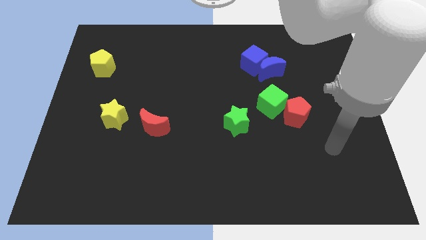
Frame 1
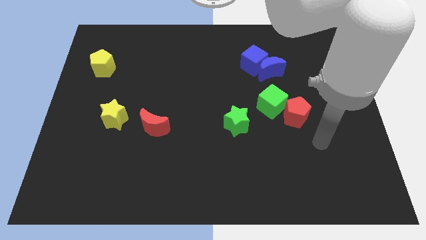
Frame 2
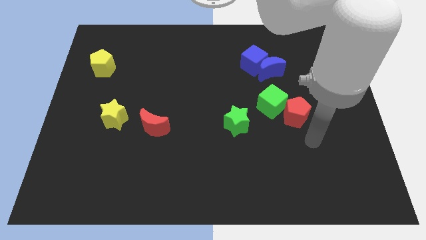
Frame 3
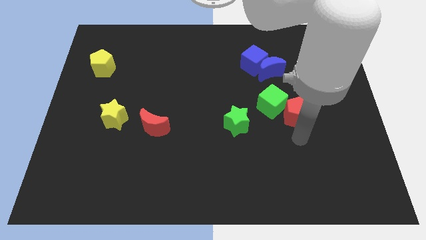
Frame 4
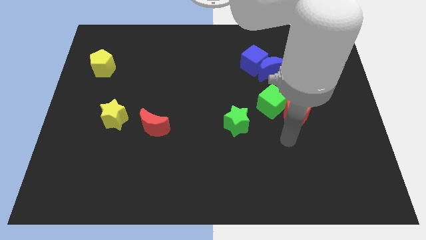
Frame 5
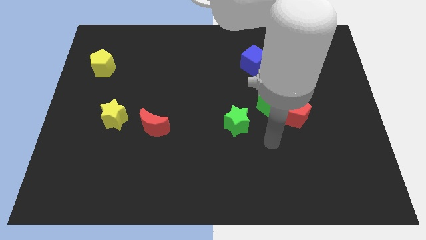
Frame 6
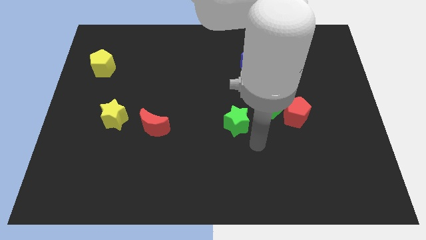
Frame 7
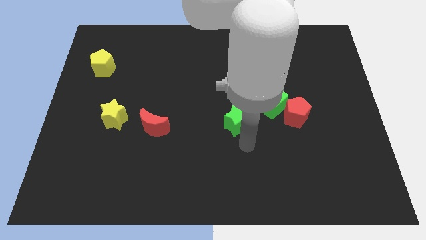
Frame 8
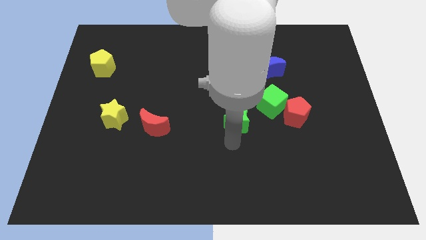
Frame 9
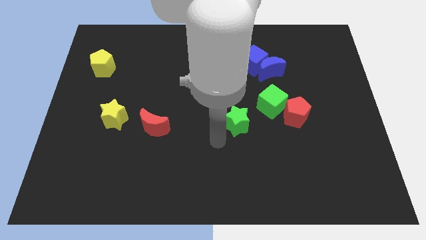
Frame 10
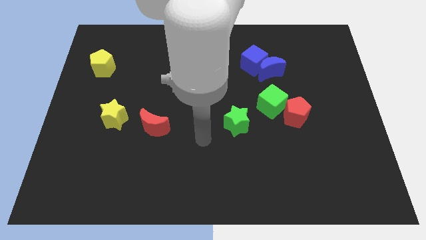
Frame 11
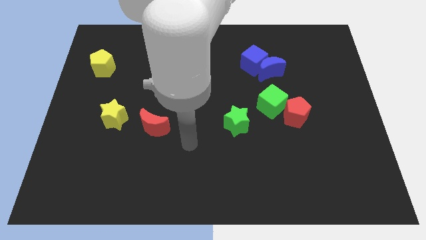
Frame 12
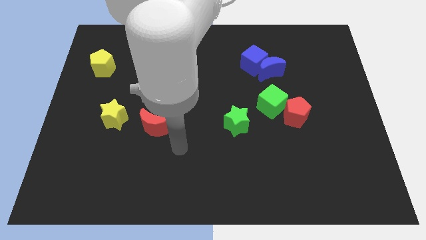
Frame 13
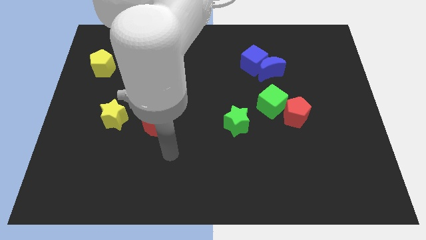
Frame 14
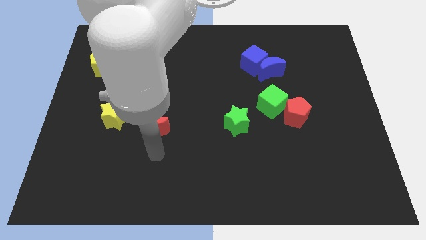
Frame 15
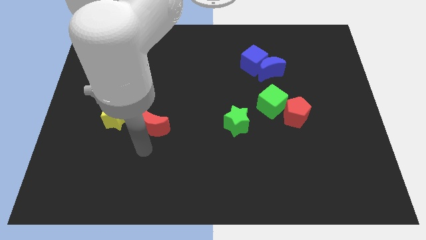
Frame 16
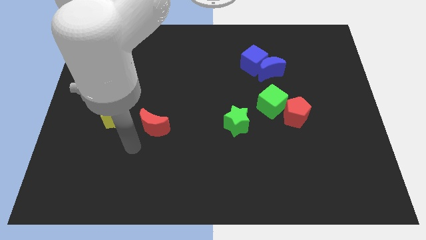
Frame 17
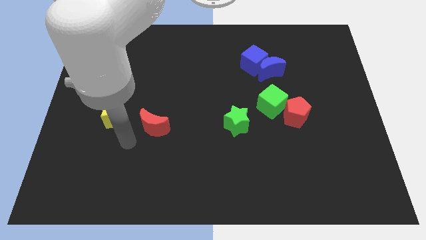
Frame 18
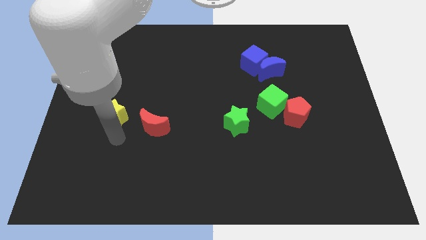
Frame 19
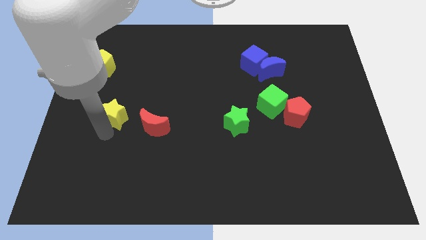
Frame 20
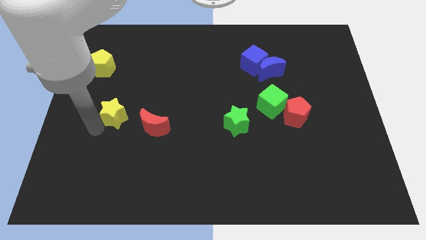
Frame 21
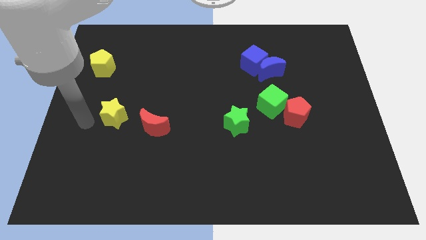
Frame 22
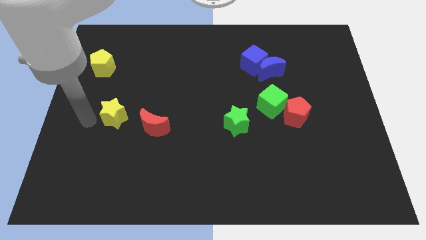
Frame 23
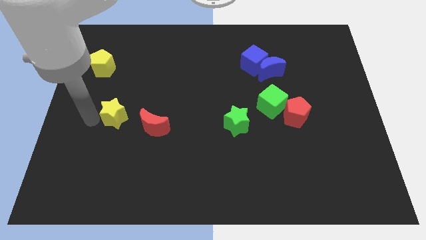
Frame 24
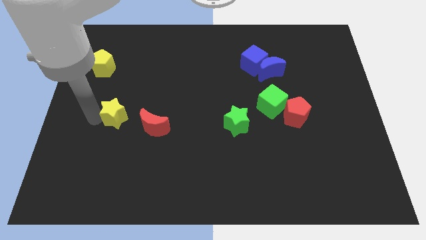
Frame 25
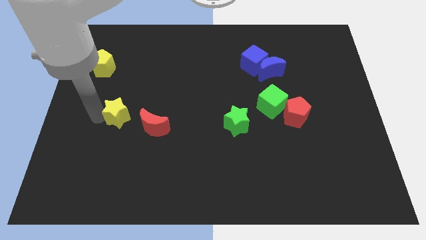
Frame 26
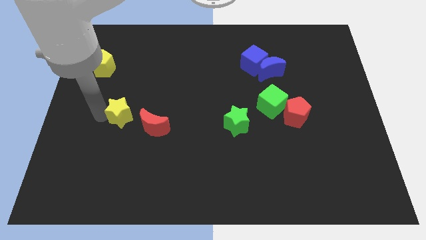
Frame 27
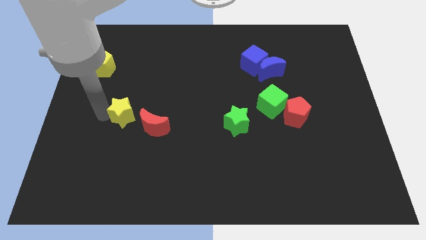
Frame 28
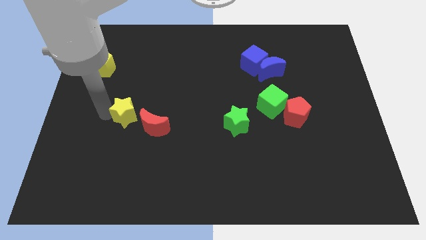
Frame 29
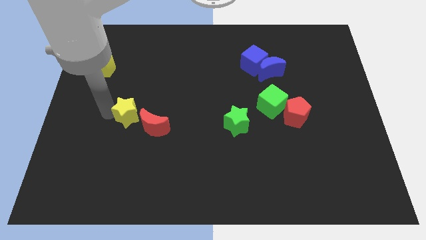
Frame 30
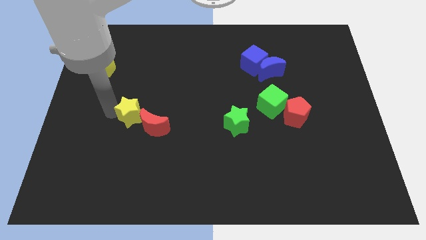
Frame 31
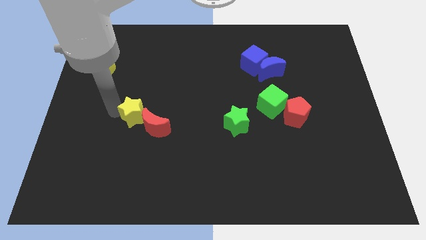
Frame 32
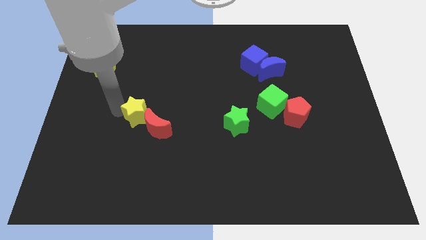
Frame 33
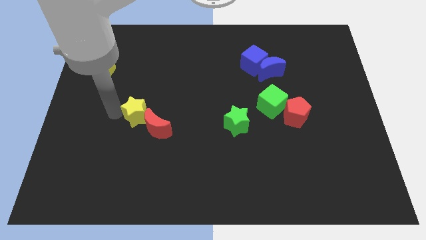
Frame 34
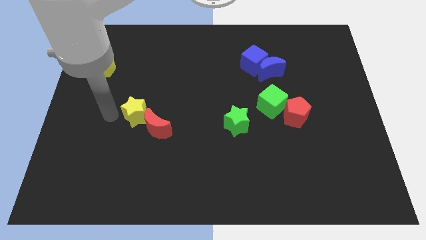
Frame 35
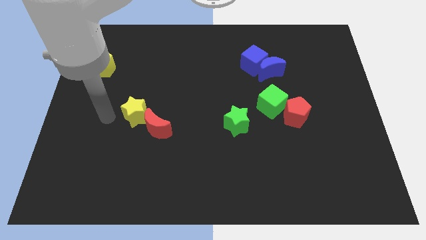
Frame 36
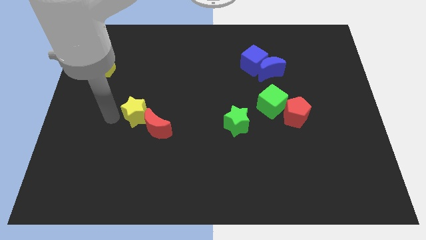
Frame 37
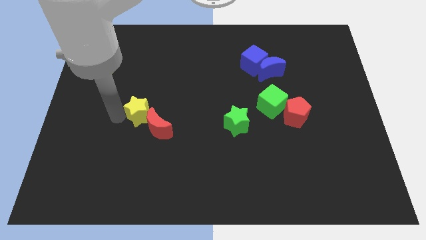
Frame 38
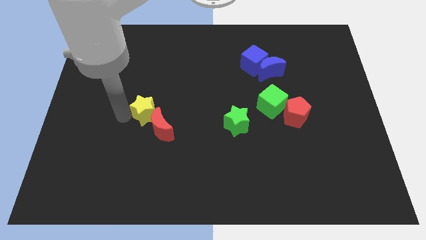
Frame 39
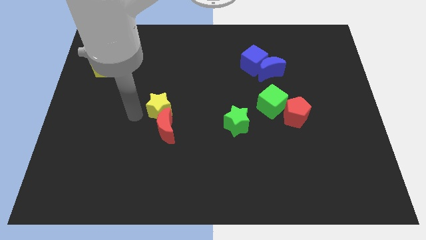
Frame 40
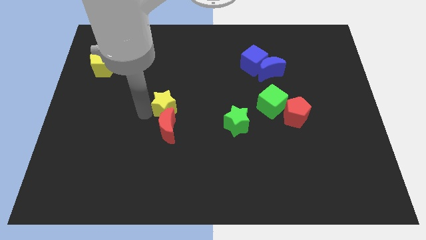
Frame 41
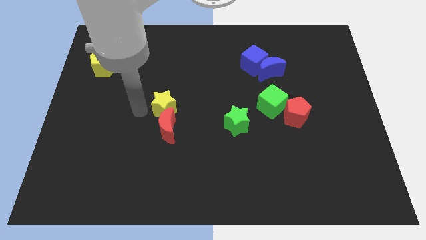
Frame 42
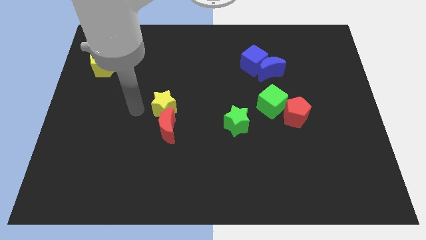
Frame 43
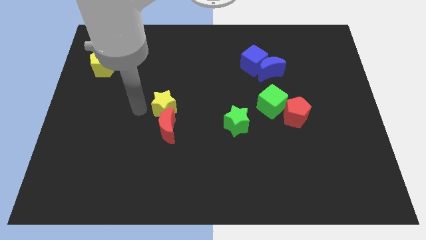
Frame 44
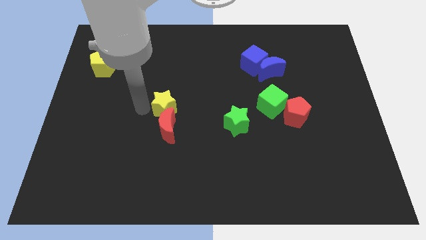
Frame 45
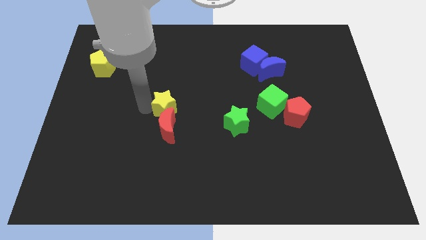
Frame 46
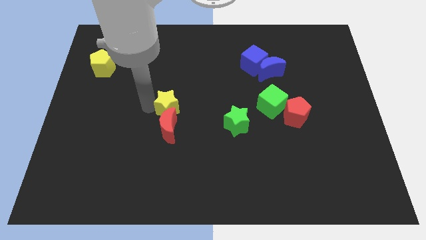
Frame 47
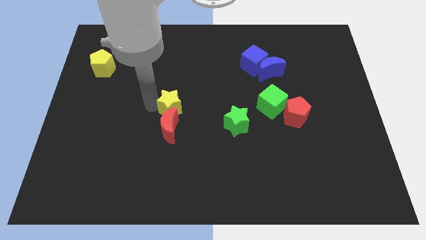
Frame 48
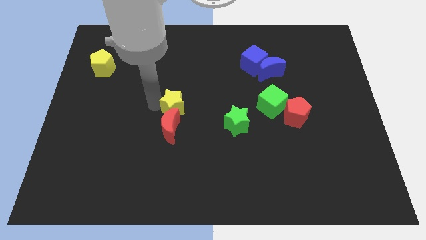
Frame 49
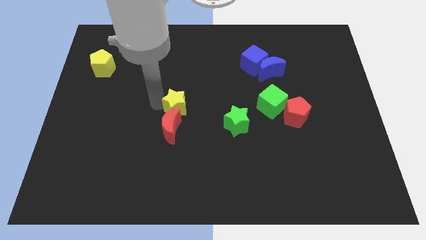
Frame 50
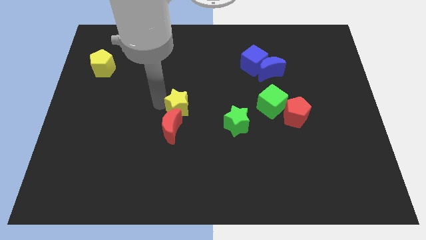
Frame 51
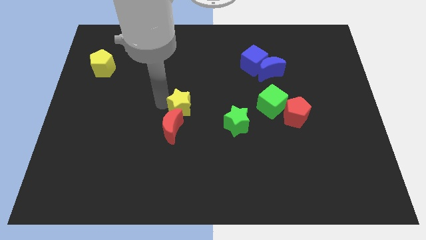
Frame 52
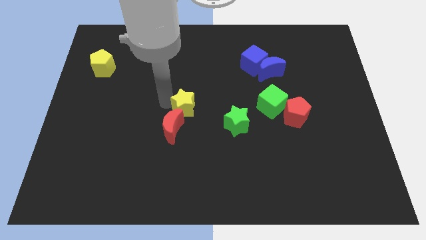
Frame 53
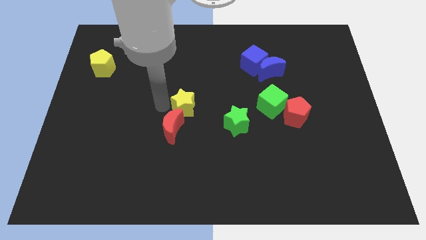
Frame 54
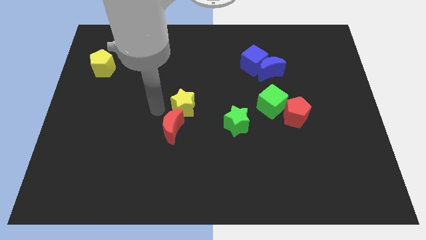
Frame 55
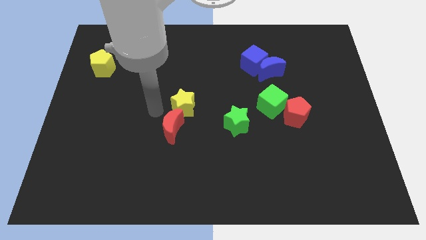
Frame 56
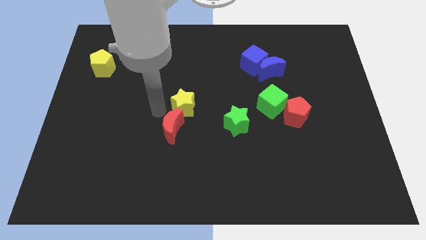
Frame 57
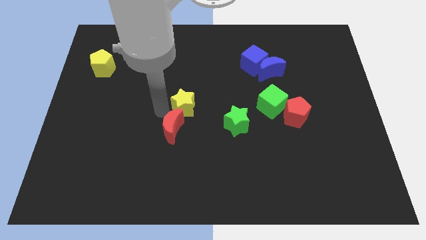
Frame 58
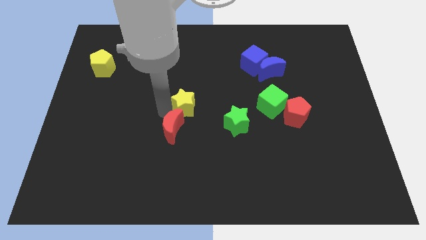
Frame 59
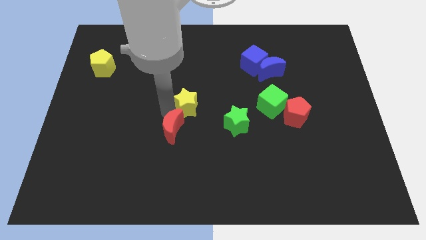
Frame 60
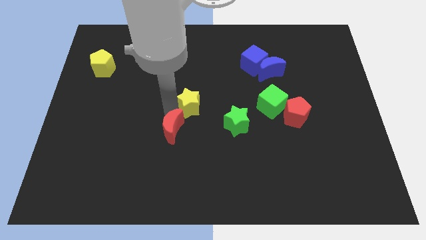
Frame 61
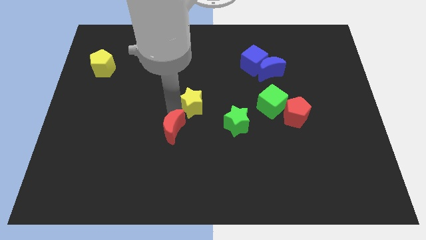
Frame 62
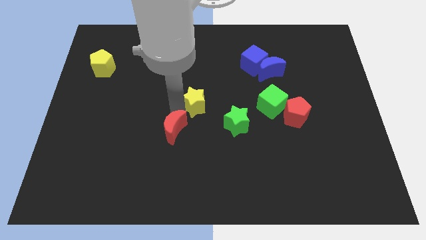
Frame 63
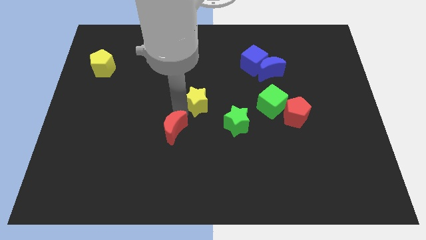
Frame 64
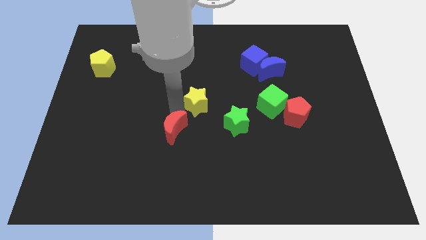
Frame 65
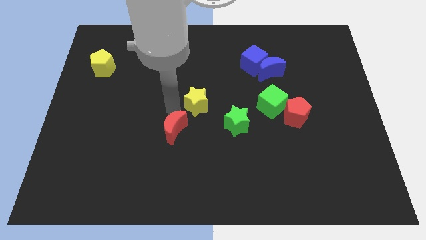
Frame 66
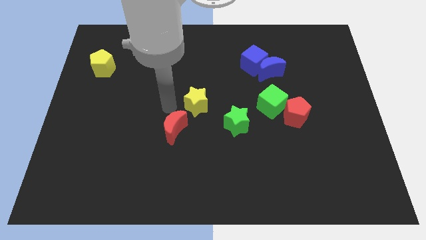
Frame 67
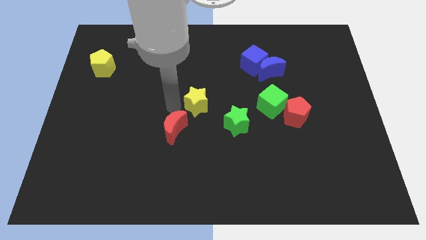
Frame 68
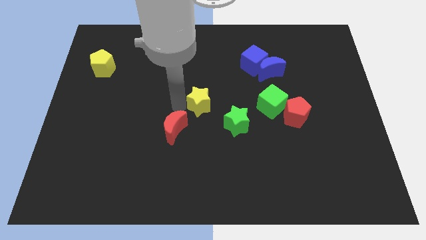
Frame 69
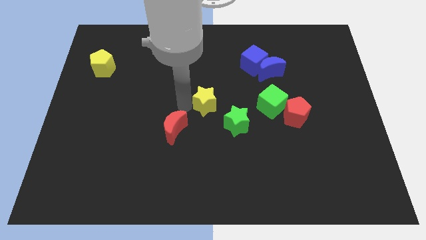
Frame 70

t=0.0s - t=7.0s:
slide the yellow star to the right

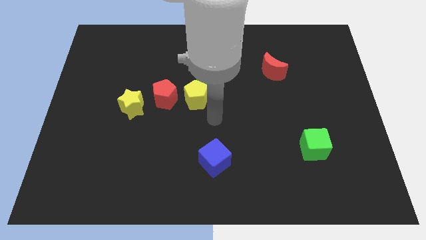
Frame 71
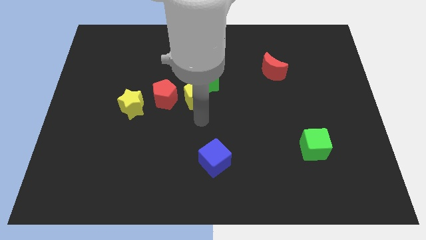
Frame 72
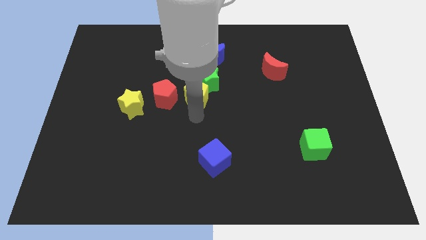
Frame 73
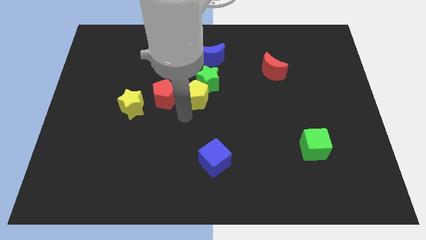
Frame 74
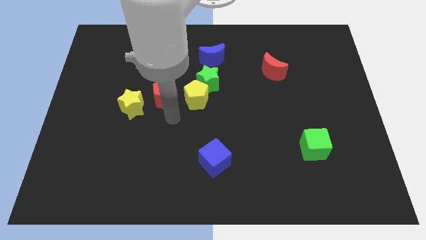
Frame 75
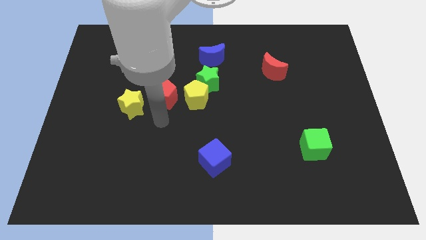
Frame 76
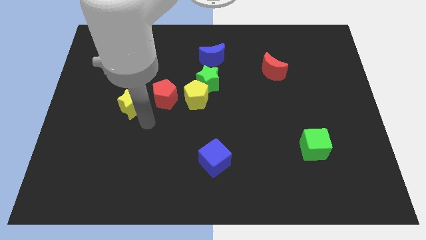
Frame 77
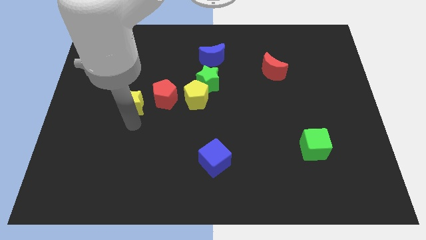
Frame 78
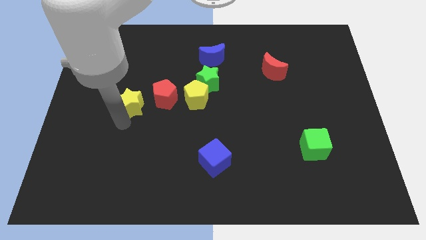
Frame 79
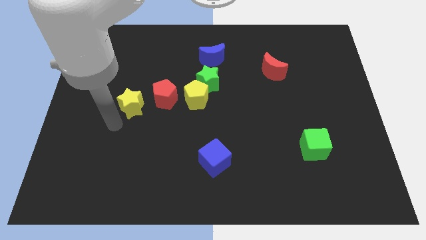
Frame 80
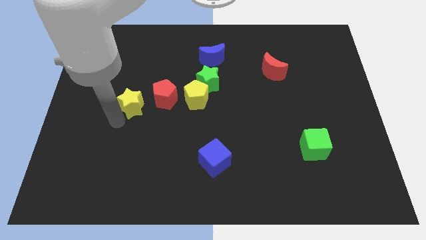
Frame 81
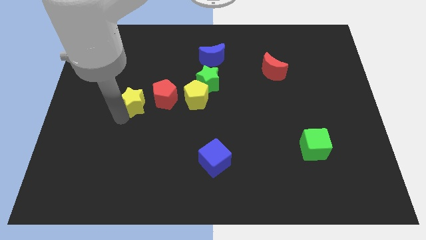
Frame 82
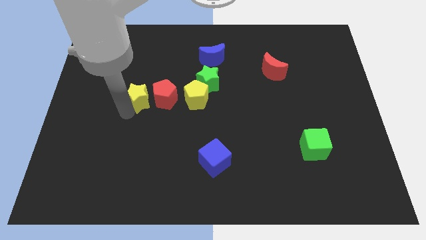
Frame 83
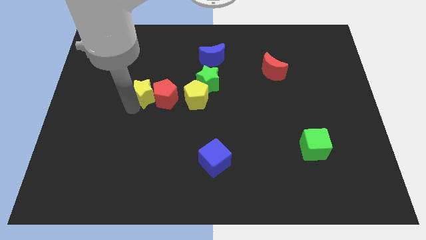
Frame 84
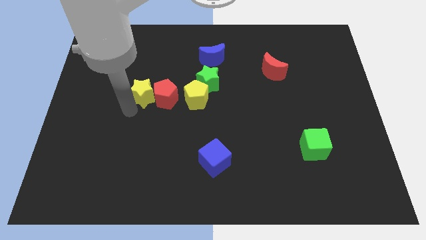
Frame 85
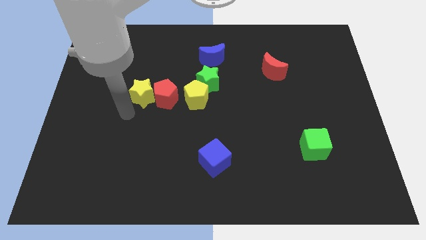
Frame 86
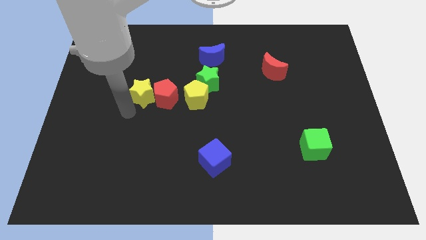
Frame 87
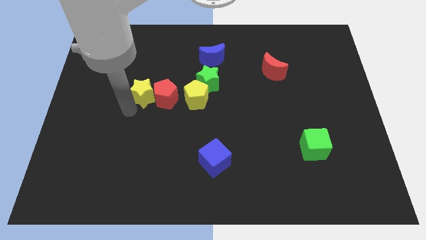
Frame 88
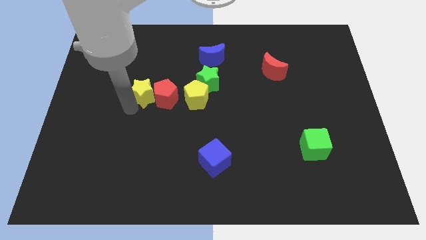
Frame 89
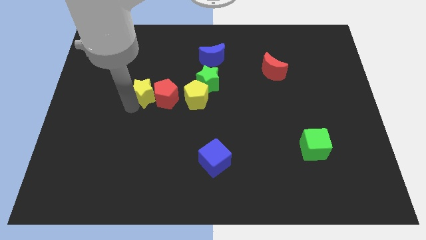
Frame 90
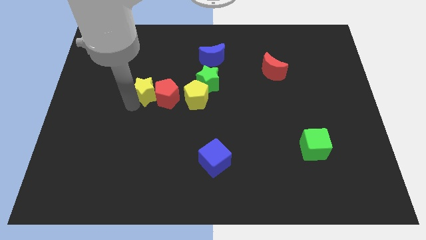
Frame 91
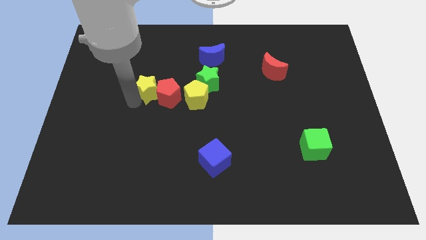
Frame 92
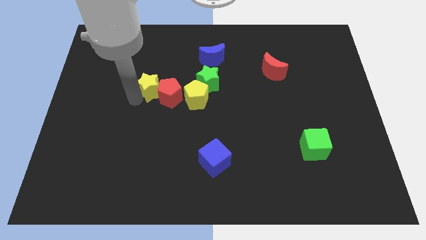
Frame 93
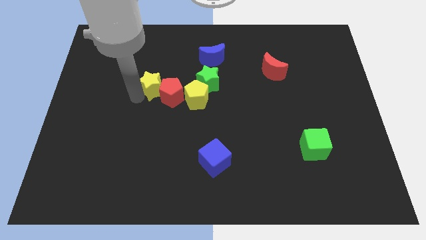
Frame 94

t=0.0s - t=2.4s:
slightly slide the yellow star upwards and to the right diagonally
